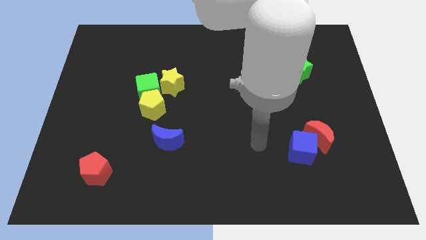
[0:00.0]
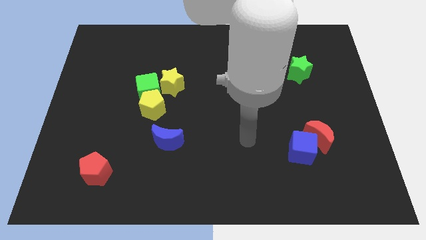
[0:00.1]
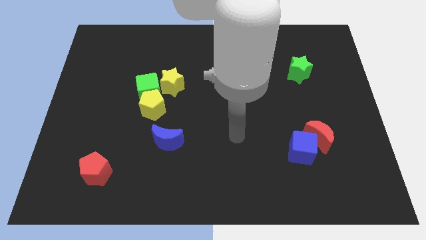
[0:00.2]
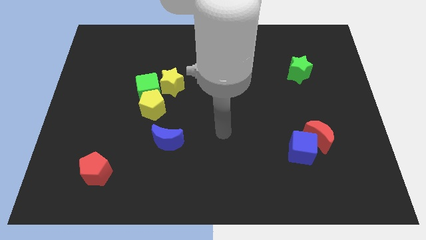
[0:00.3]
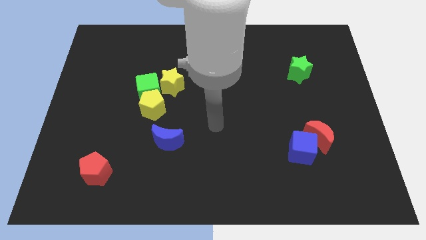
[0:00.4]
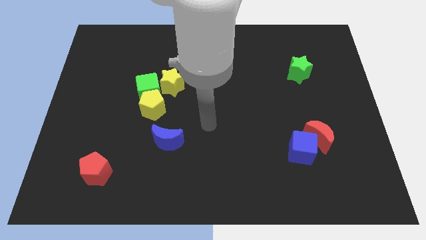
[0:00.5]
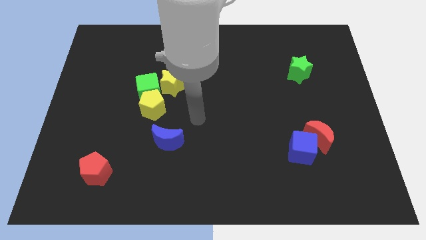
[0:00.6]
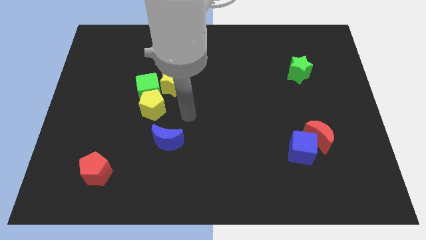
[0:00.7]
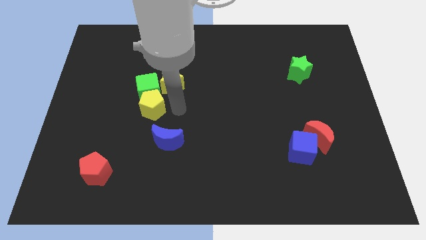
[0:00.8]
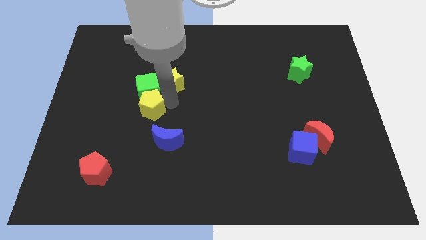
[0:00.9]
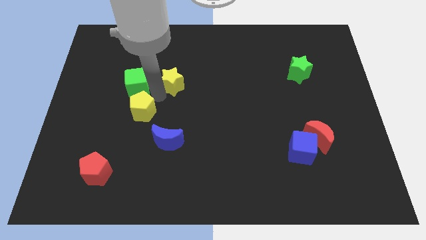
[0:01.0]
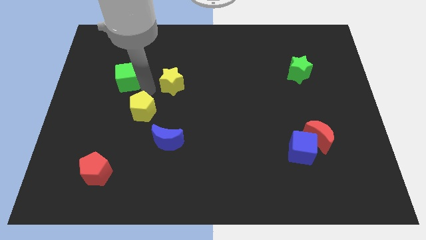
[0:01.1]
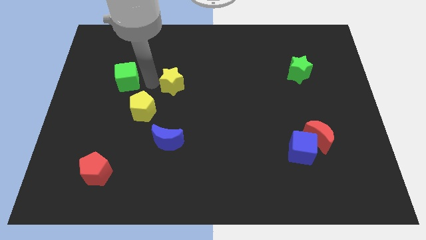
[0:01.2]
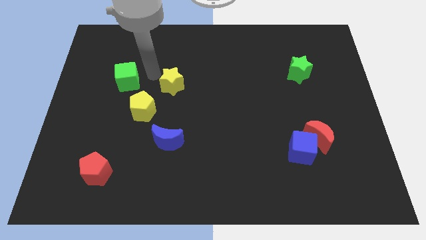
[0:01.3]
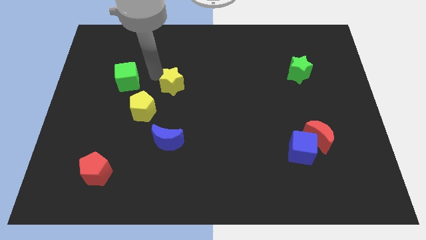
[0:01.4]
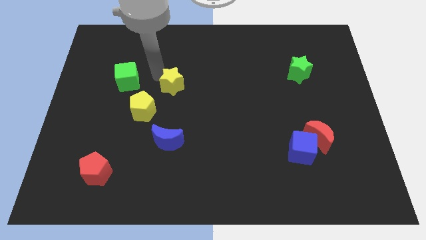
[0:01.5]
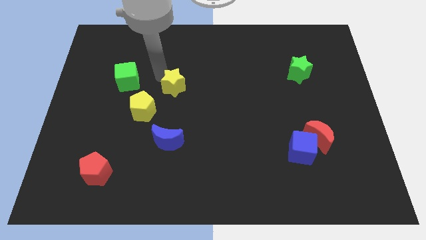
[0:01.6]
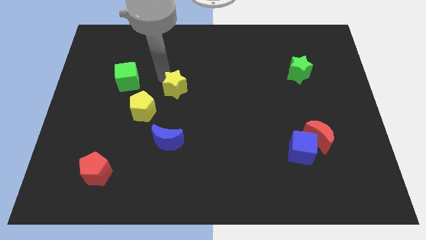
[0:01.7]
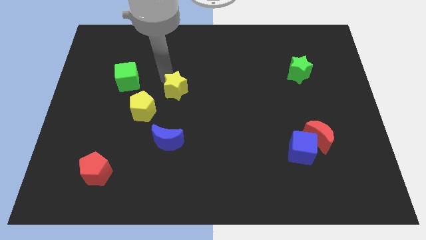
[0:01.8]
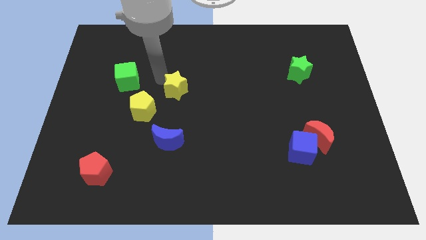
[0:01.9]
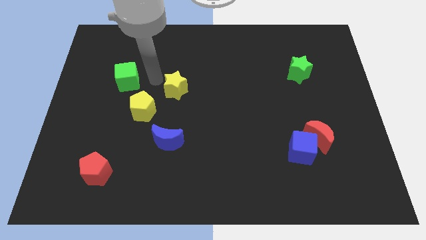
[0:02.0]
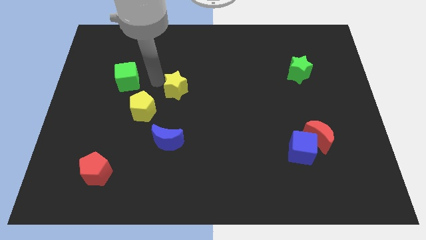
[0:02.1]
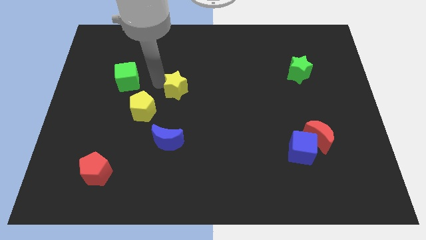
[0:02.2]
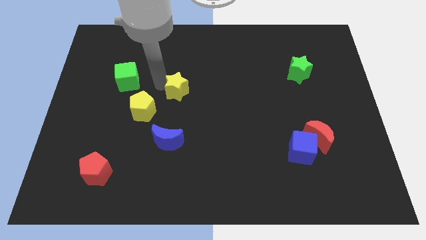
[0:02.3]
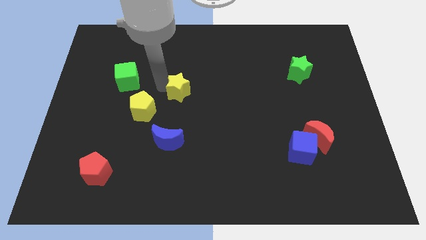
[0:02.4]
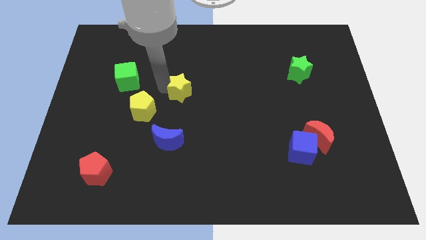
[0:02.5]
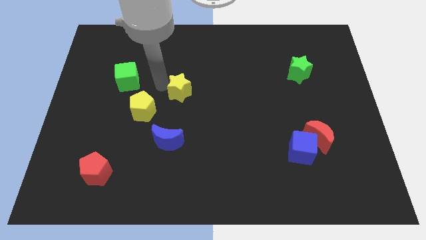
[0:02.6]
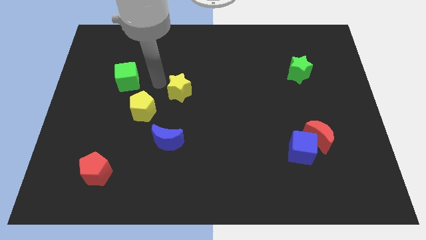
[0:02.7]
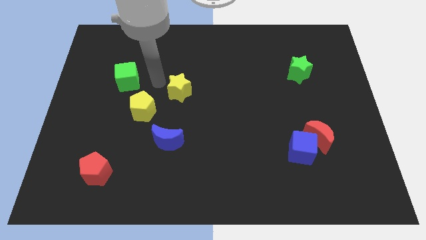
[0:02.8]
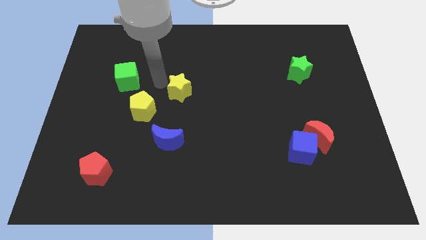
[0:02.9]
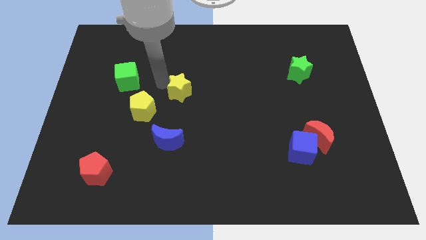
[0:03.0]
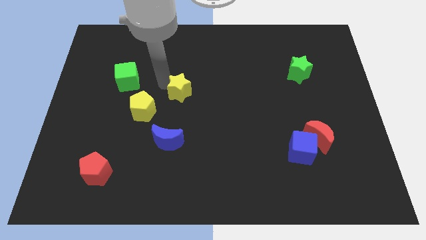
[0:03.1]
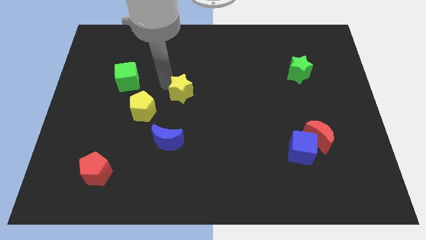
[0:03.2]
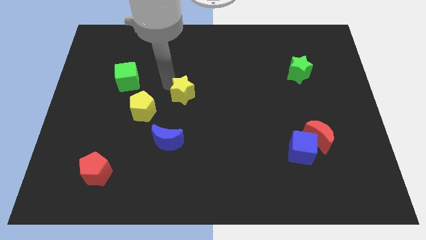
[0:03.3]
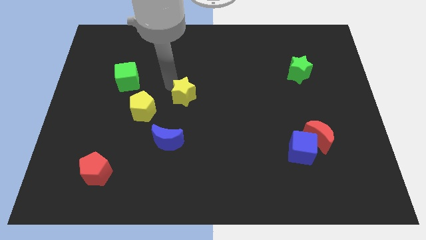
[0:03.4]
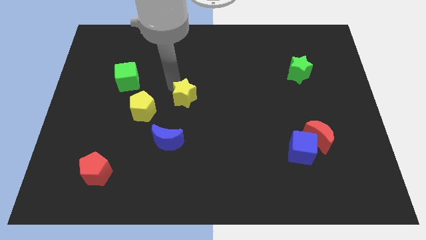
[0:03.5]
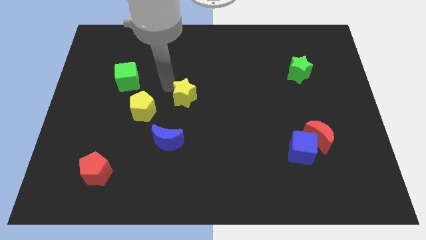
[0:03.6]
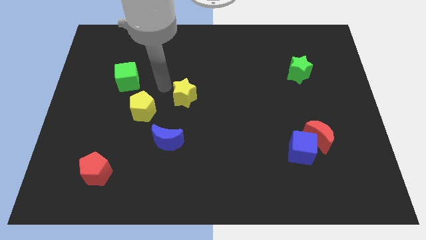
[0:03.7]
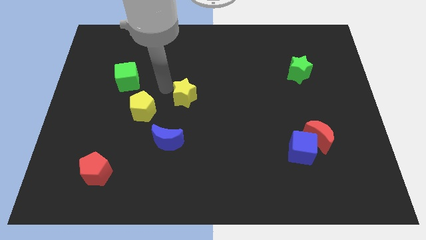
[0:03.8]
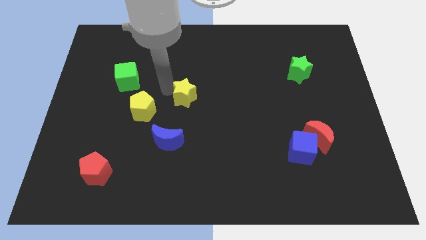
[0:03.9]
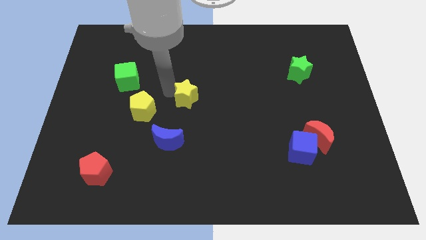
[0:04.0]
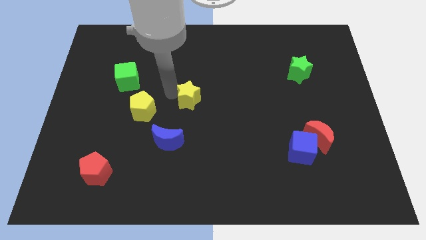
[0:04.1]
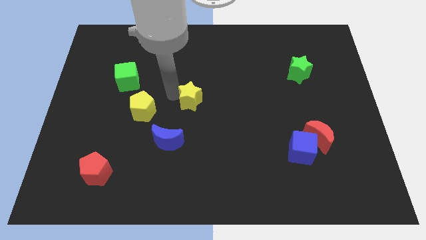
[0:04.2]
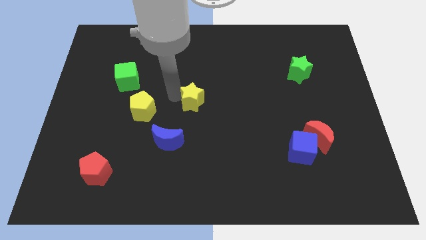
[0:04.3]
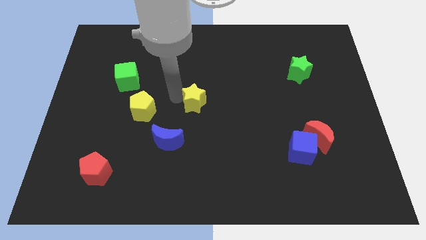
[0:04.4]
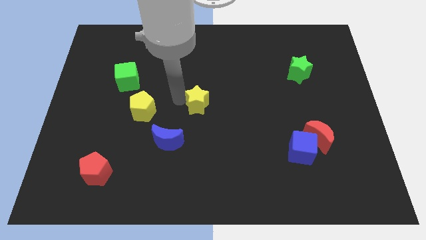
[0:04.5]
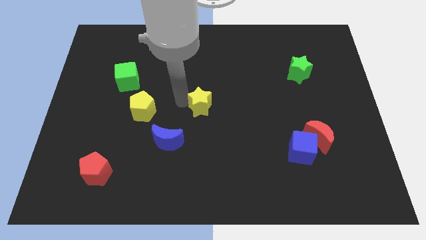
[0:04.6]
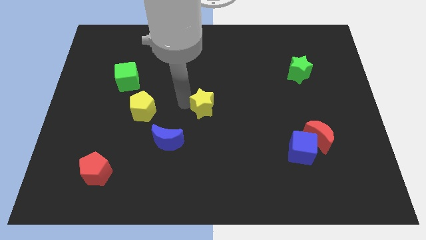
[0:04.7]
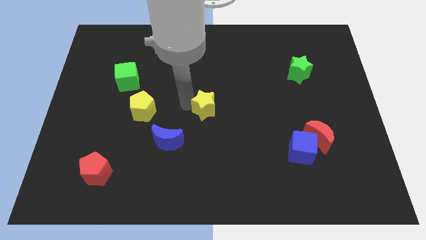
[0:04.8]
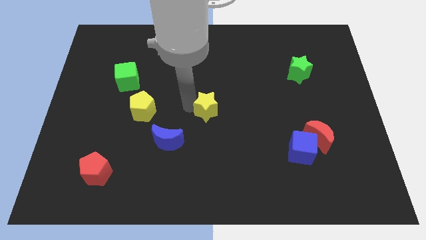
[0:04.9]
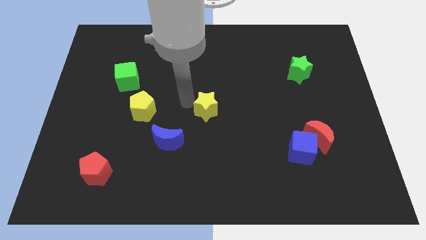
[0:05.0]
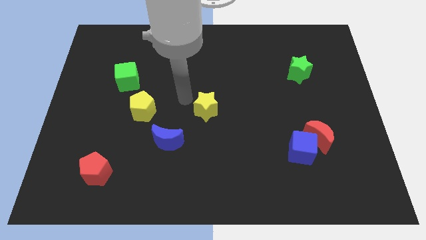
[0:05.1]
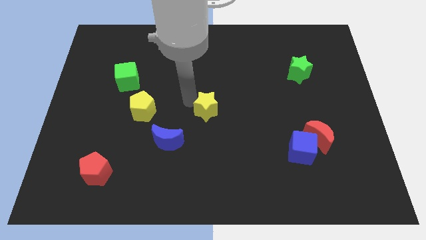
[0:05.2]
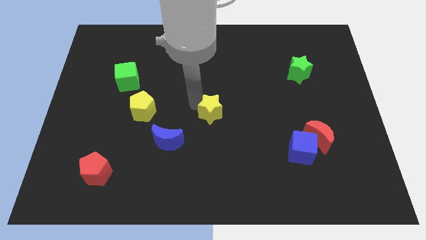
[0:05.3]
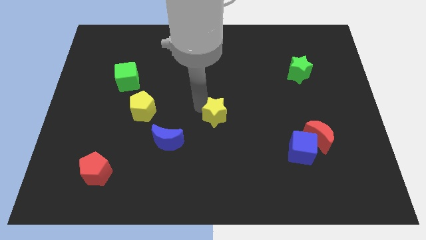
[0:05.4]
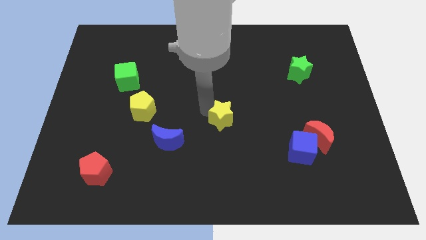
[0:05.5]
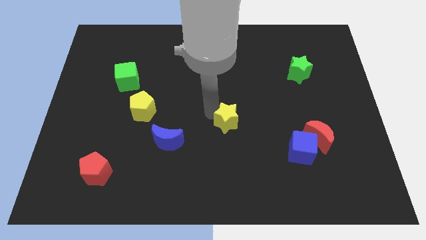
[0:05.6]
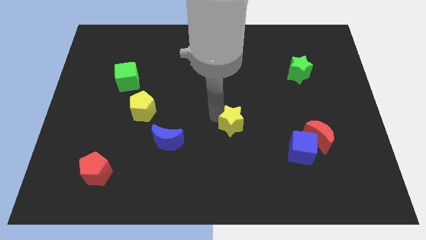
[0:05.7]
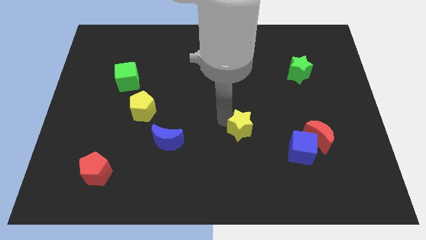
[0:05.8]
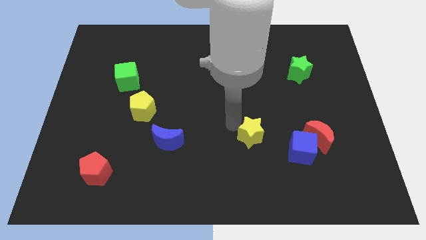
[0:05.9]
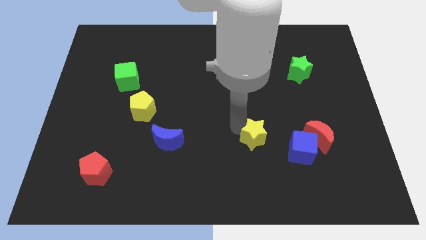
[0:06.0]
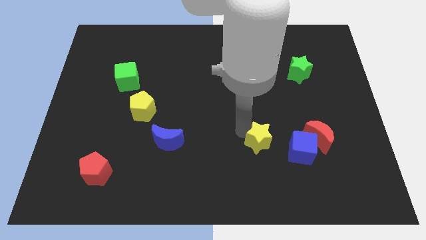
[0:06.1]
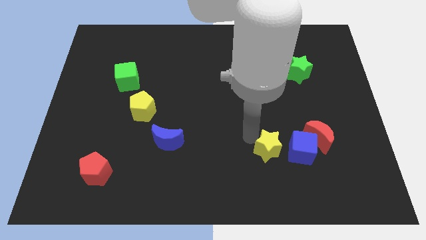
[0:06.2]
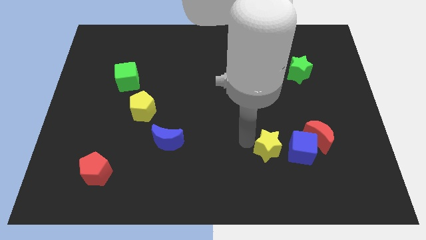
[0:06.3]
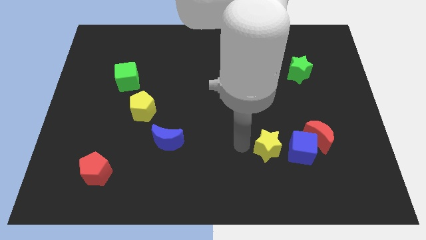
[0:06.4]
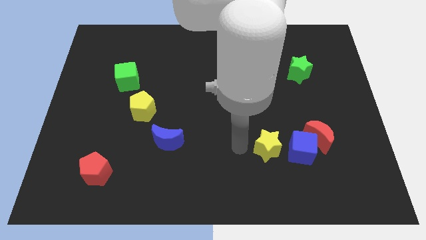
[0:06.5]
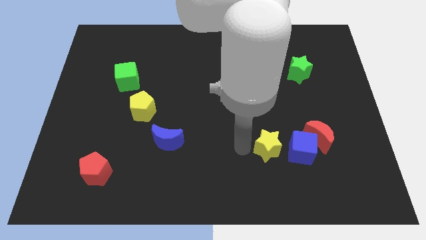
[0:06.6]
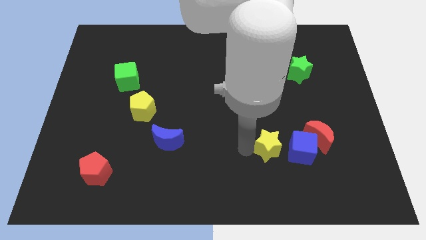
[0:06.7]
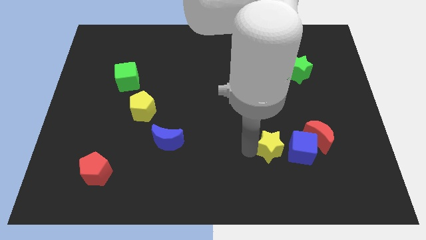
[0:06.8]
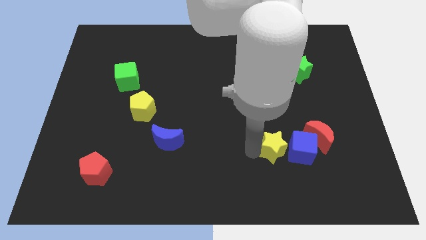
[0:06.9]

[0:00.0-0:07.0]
push the yellow star close to the blue cube

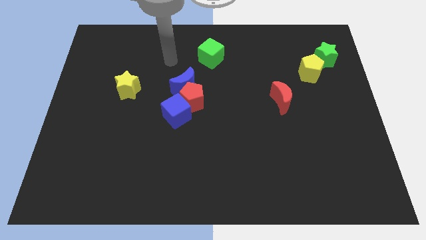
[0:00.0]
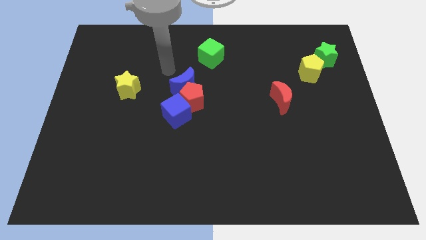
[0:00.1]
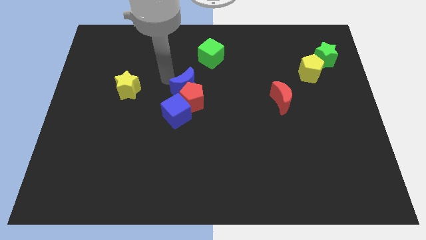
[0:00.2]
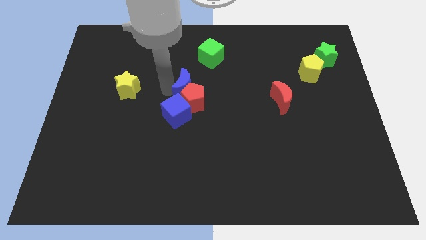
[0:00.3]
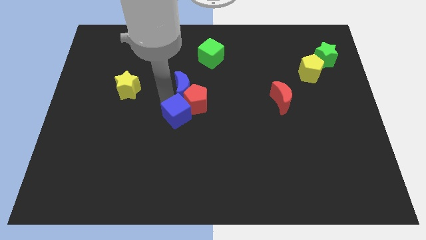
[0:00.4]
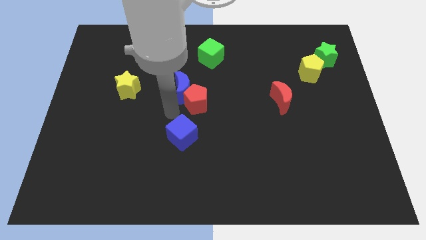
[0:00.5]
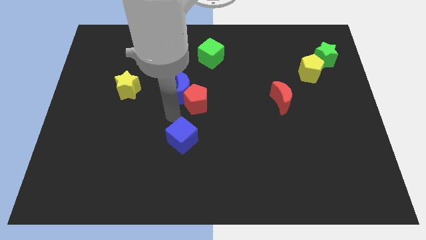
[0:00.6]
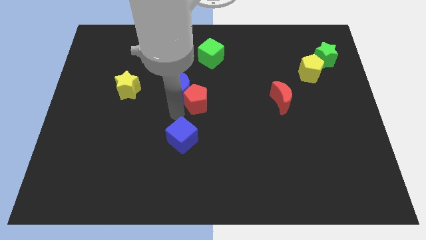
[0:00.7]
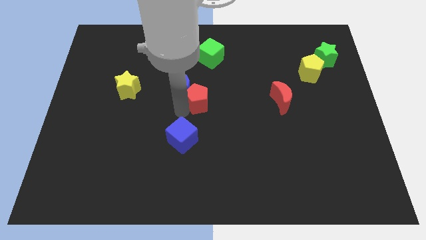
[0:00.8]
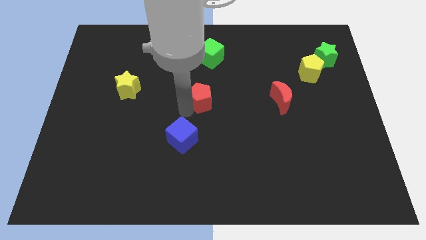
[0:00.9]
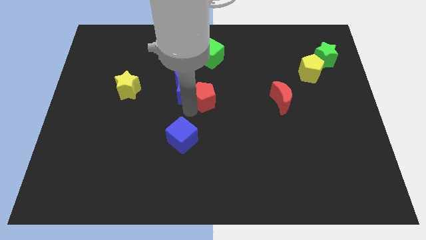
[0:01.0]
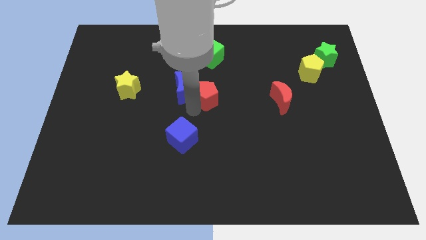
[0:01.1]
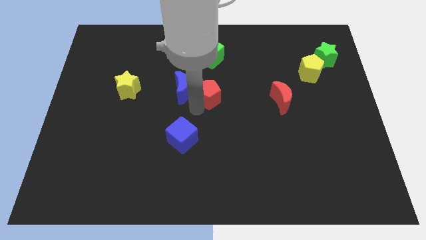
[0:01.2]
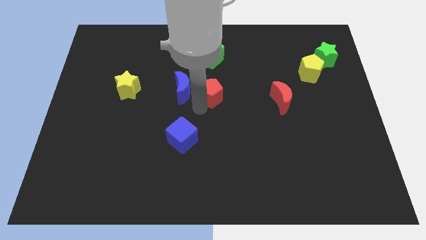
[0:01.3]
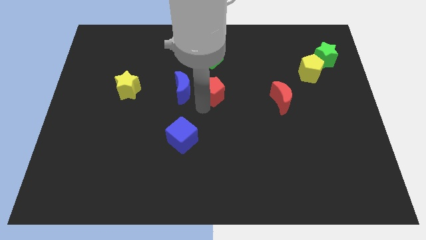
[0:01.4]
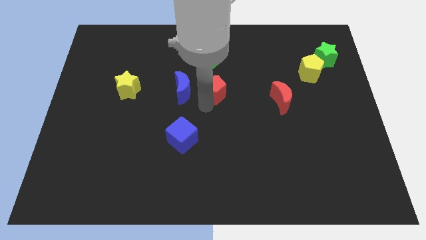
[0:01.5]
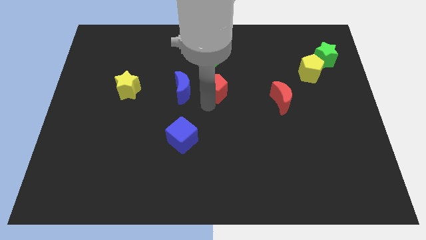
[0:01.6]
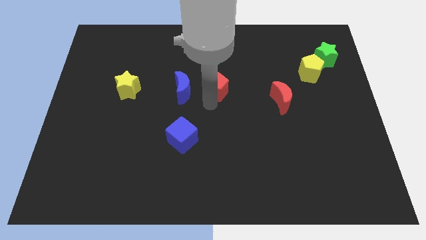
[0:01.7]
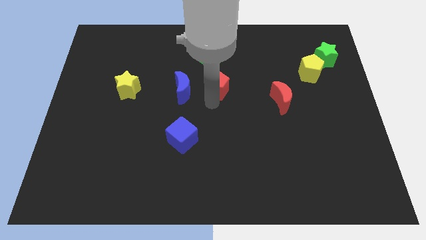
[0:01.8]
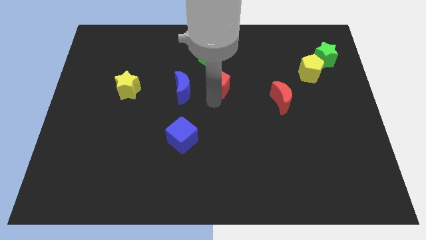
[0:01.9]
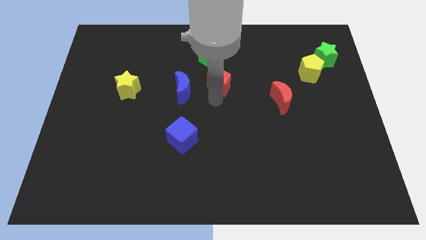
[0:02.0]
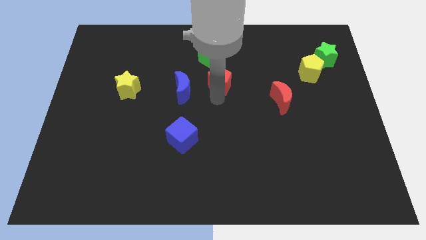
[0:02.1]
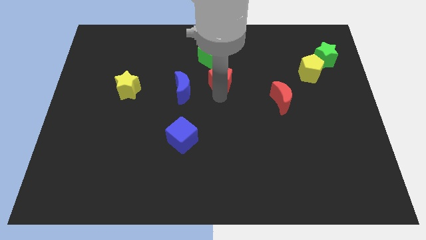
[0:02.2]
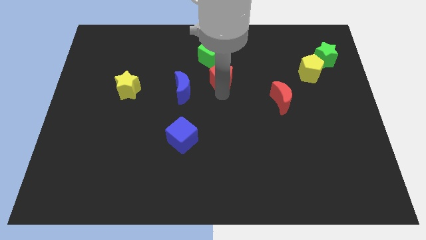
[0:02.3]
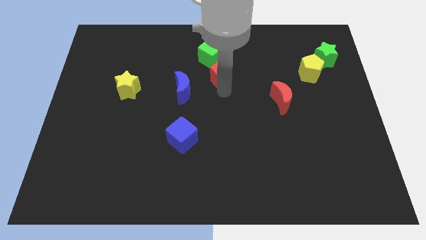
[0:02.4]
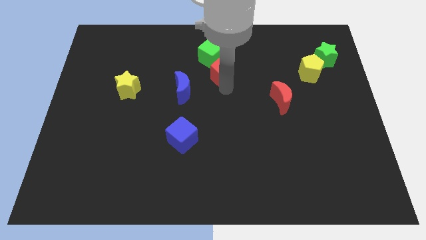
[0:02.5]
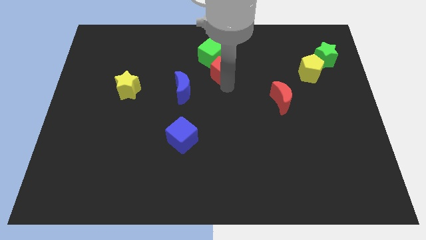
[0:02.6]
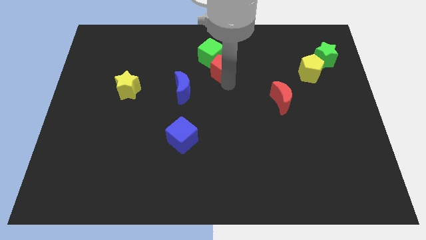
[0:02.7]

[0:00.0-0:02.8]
push the red pentagon towards the green cube
